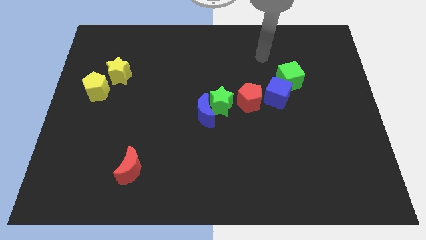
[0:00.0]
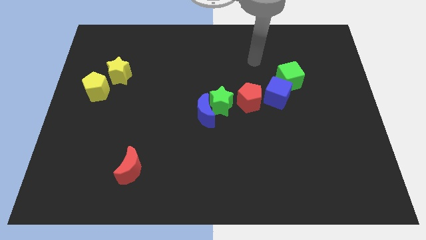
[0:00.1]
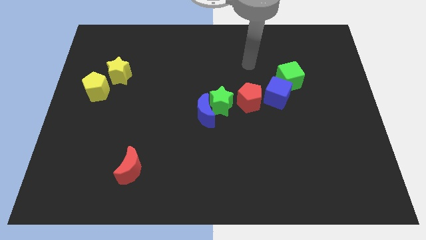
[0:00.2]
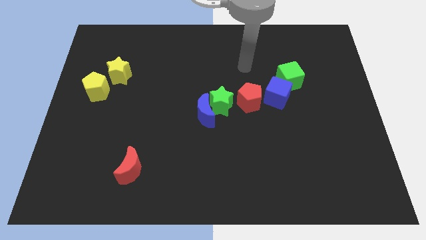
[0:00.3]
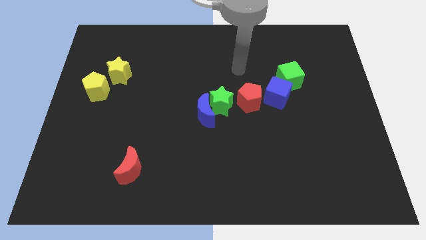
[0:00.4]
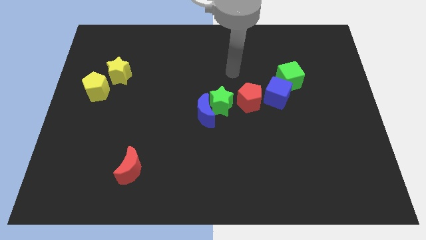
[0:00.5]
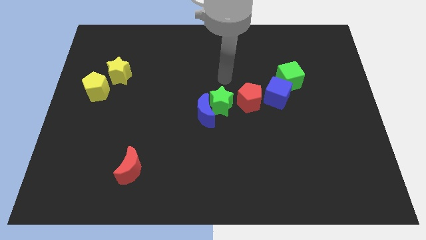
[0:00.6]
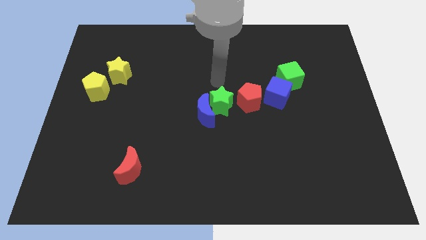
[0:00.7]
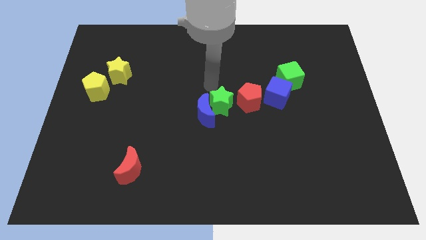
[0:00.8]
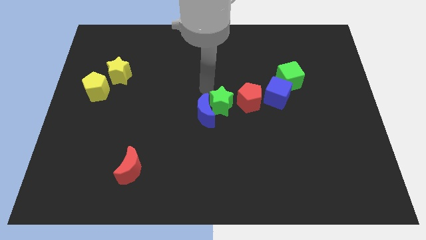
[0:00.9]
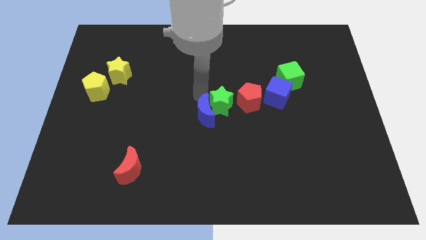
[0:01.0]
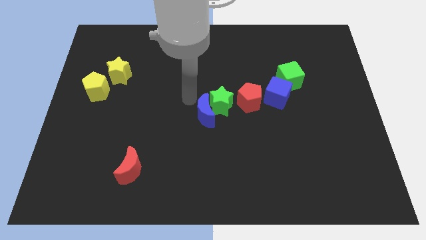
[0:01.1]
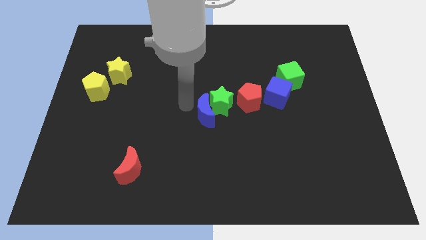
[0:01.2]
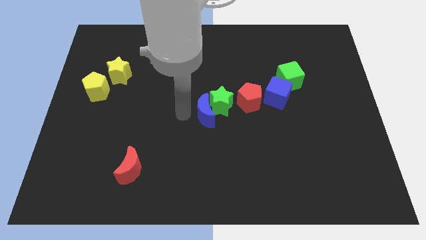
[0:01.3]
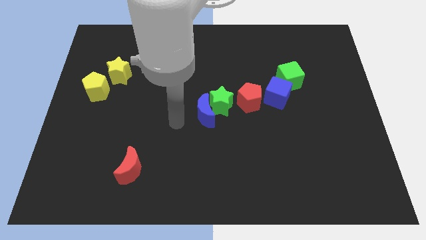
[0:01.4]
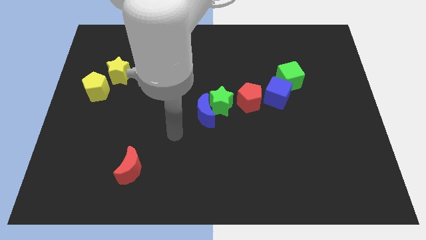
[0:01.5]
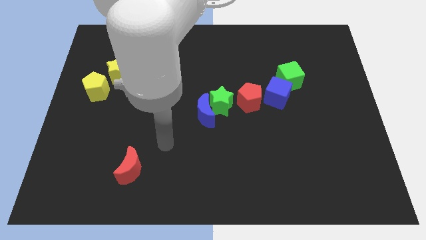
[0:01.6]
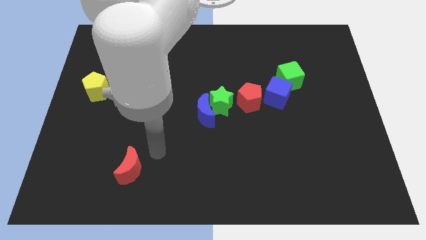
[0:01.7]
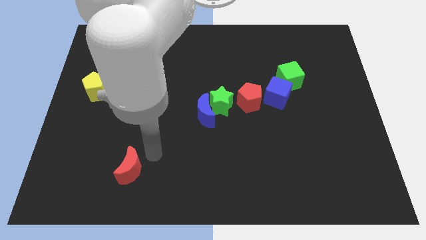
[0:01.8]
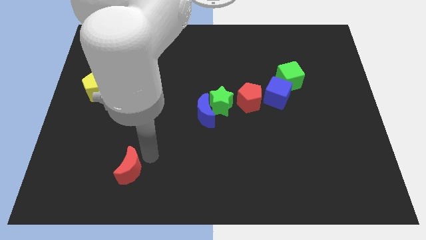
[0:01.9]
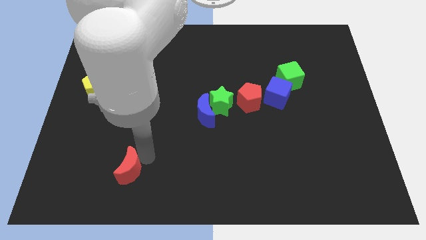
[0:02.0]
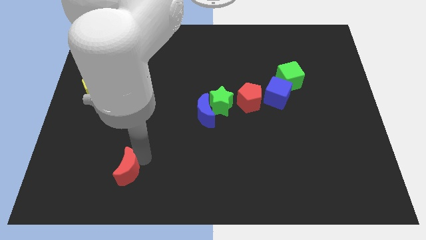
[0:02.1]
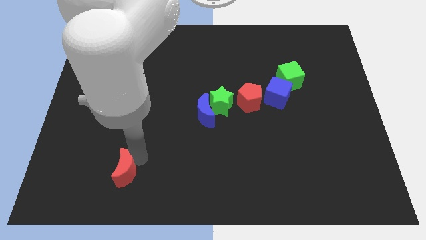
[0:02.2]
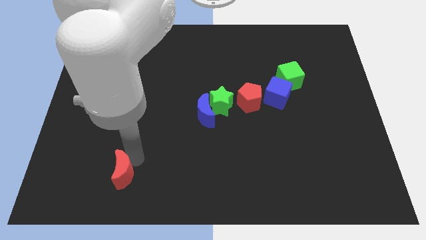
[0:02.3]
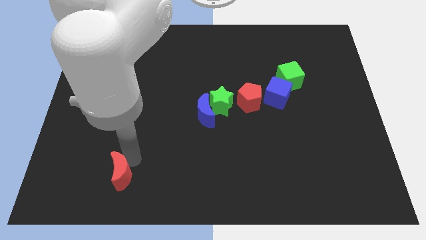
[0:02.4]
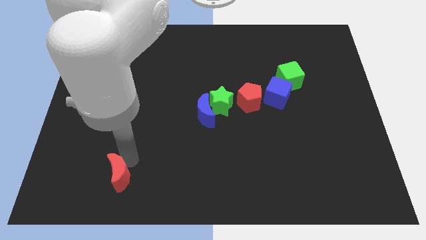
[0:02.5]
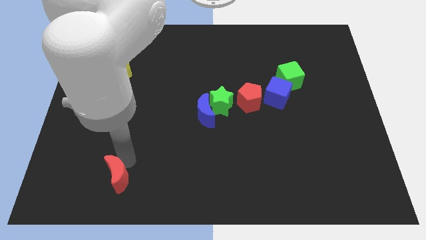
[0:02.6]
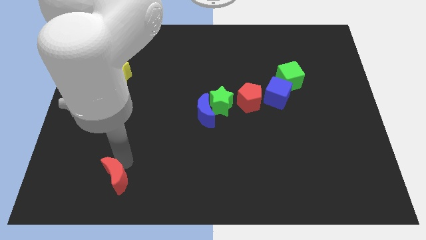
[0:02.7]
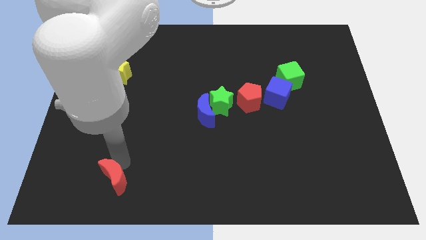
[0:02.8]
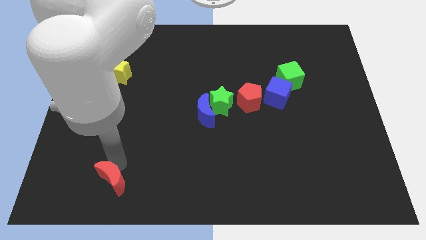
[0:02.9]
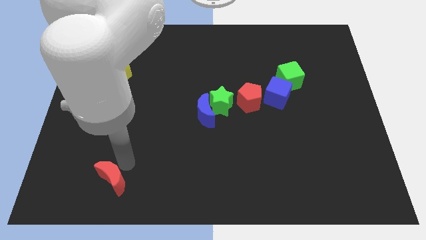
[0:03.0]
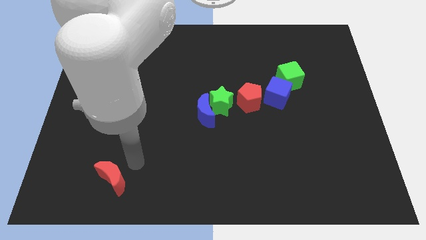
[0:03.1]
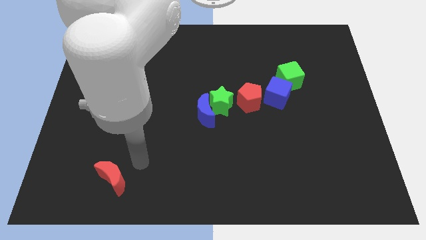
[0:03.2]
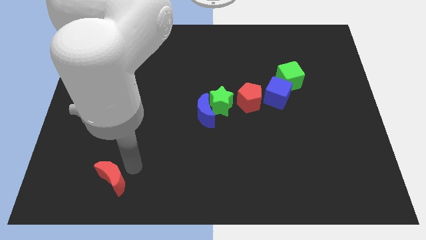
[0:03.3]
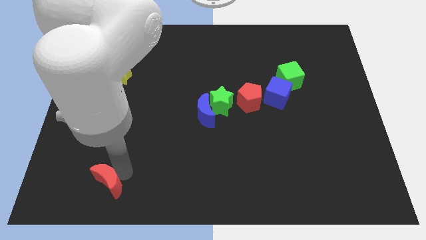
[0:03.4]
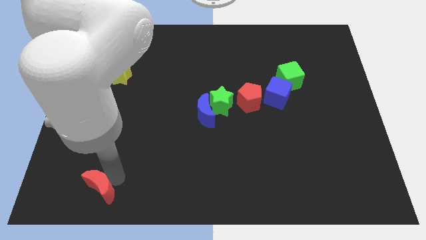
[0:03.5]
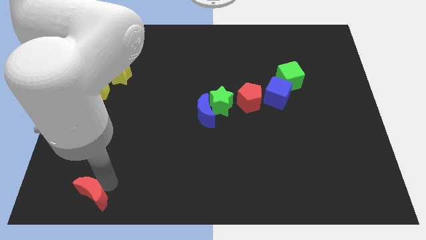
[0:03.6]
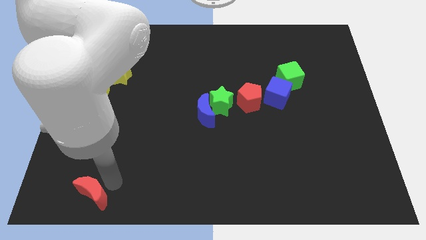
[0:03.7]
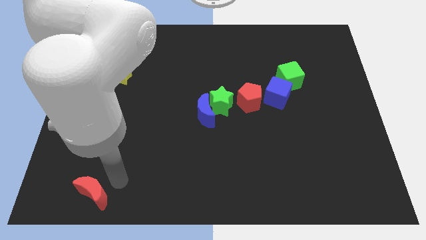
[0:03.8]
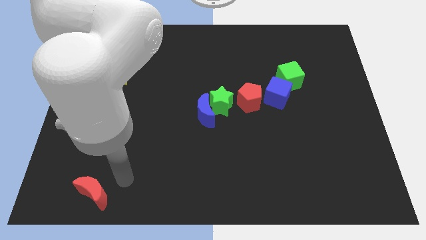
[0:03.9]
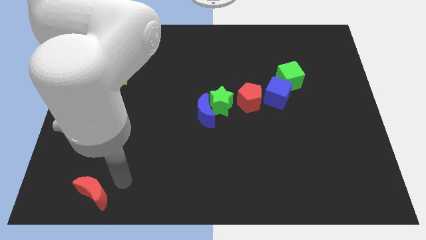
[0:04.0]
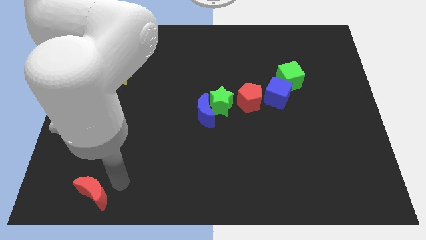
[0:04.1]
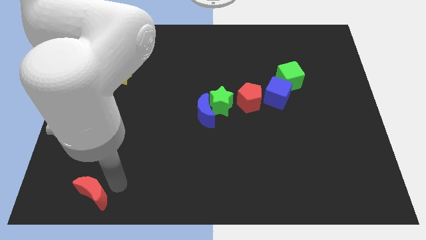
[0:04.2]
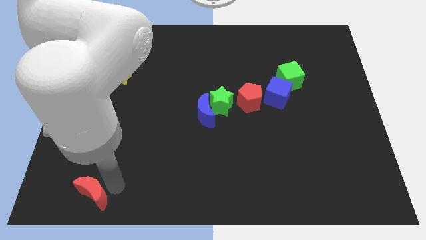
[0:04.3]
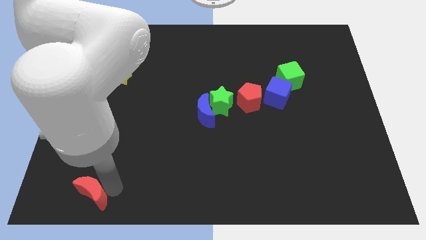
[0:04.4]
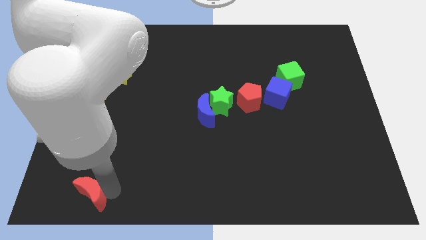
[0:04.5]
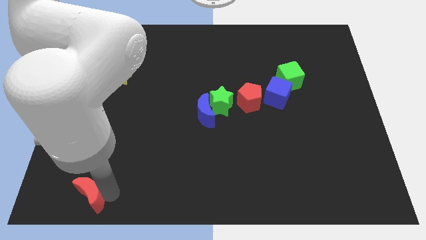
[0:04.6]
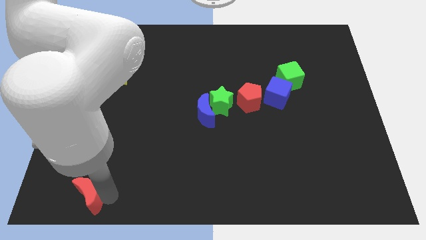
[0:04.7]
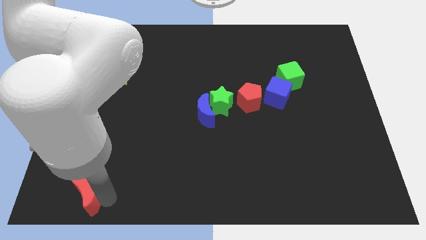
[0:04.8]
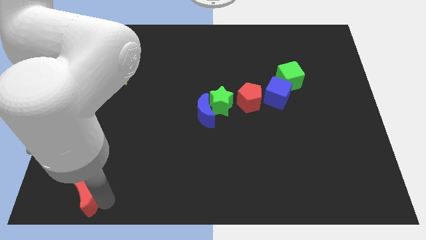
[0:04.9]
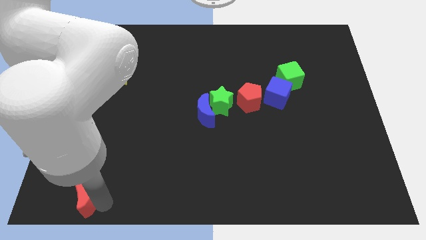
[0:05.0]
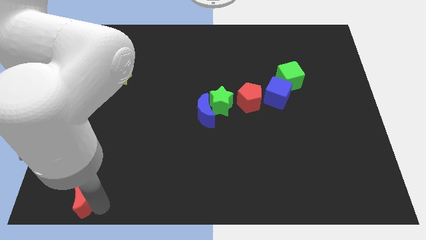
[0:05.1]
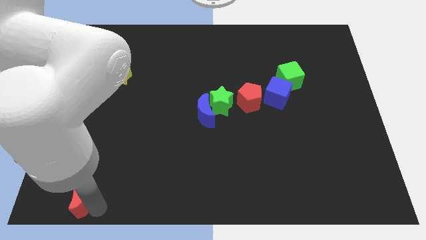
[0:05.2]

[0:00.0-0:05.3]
put the red moon to the bottom left corner

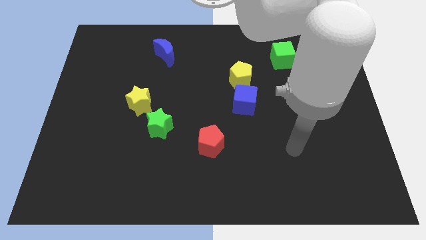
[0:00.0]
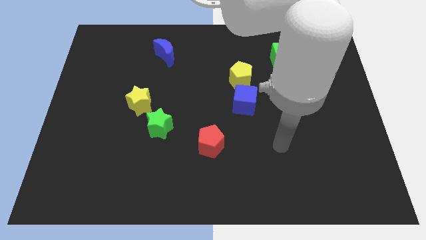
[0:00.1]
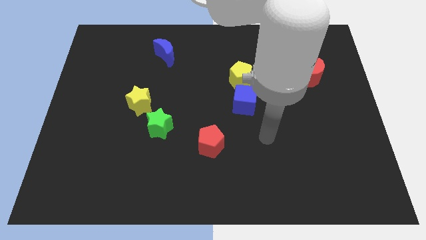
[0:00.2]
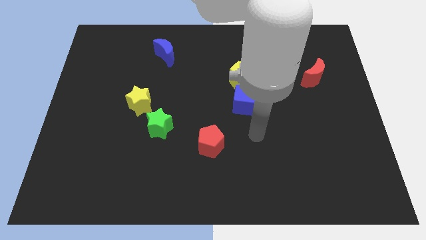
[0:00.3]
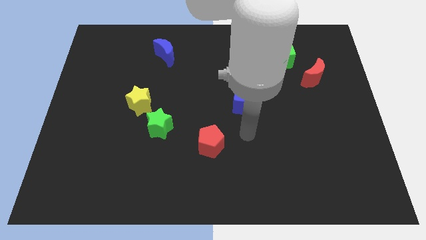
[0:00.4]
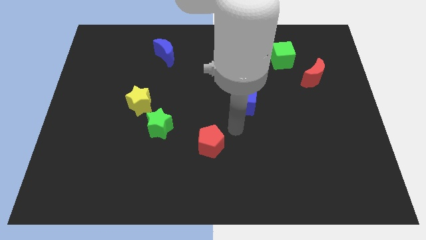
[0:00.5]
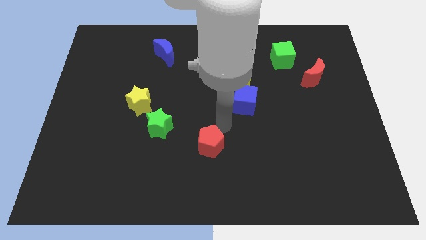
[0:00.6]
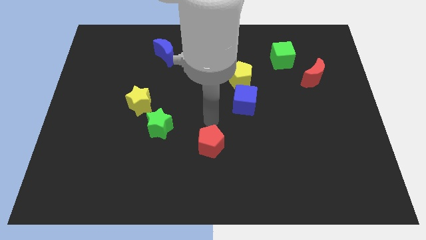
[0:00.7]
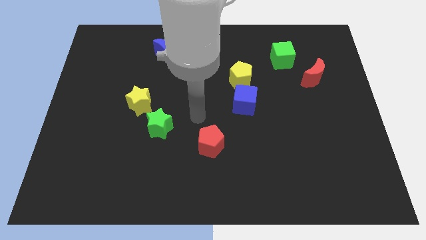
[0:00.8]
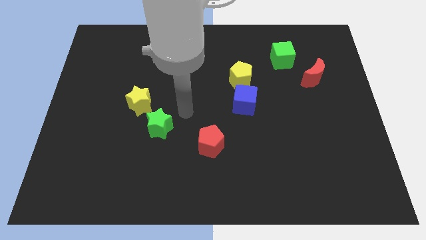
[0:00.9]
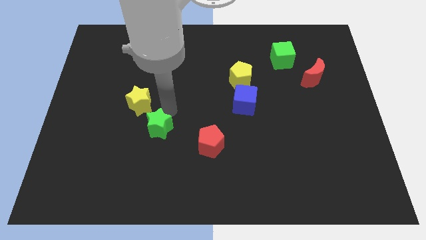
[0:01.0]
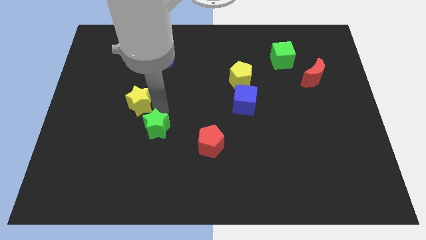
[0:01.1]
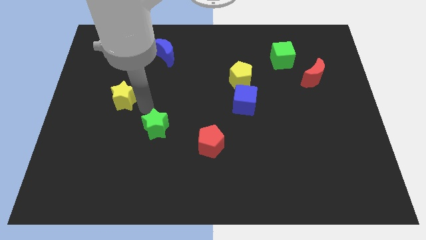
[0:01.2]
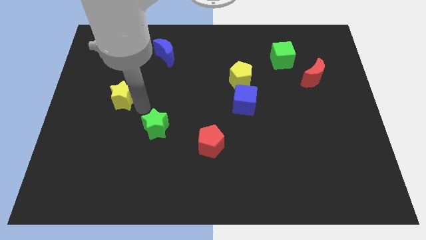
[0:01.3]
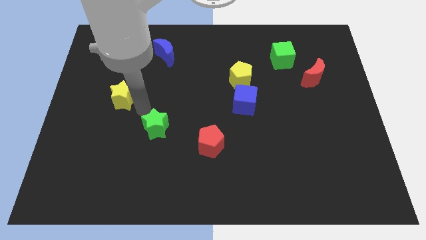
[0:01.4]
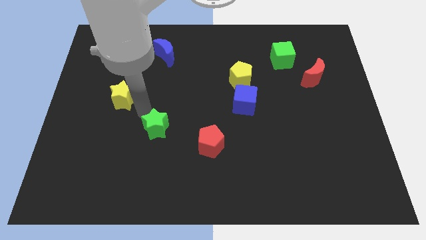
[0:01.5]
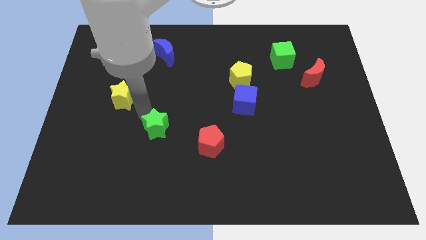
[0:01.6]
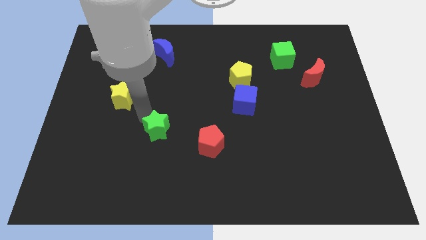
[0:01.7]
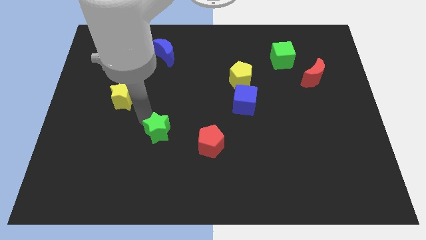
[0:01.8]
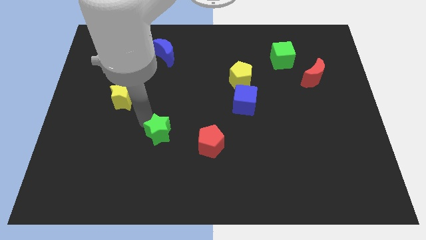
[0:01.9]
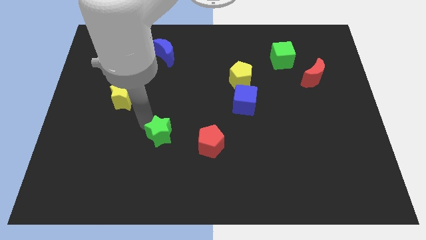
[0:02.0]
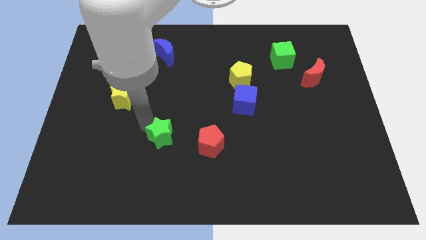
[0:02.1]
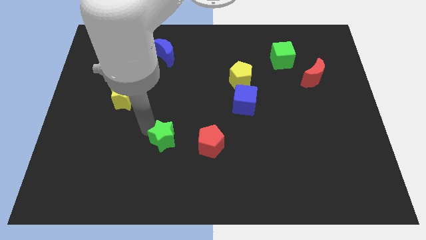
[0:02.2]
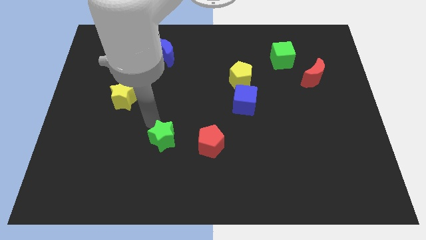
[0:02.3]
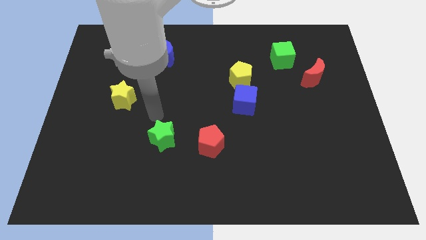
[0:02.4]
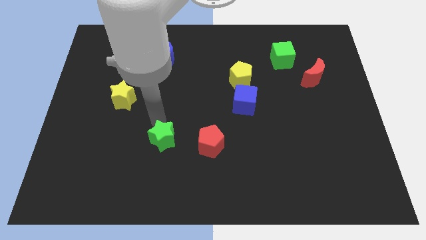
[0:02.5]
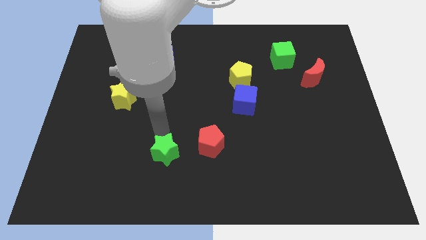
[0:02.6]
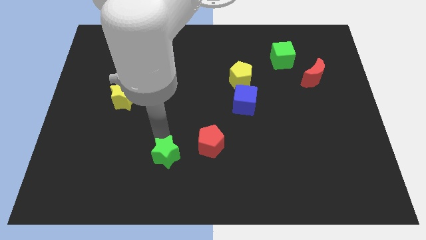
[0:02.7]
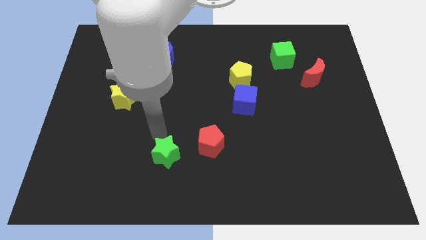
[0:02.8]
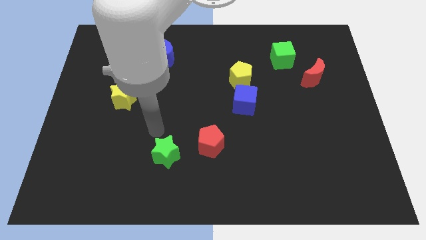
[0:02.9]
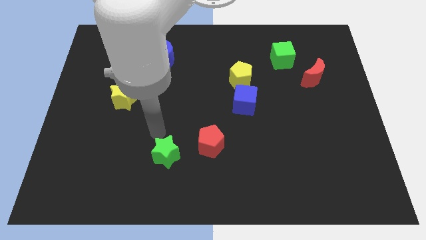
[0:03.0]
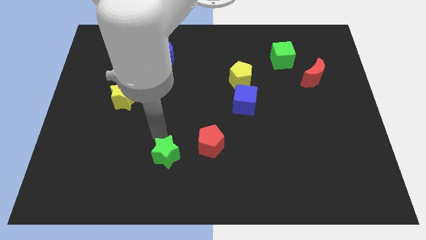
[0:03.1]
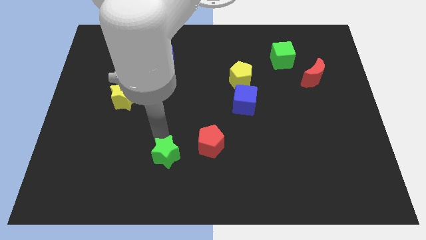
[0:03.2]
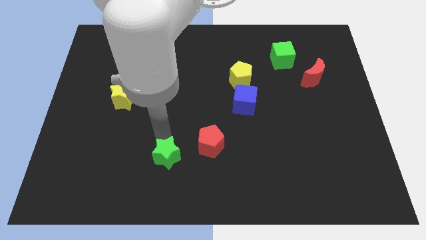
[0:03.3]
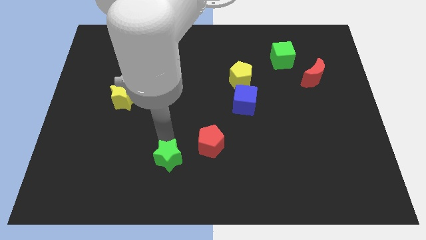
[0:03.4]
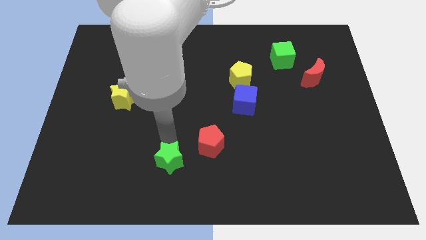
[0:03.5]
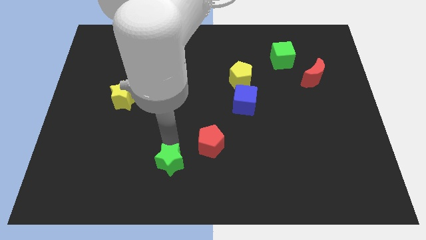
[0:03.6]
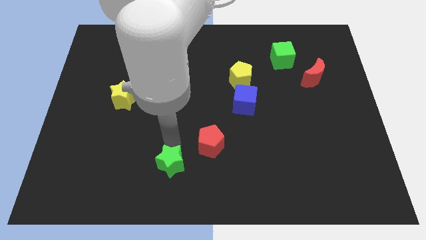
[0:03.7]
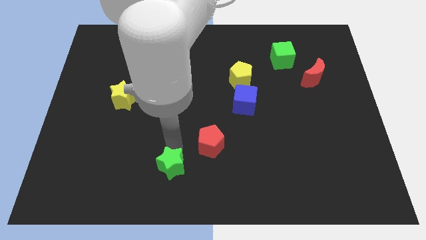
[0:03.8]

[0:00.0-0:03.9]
put the green star to the bottom side
